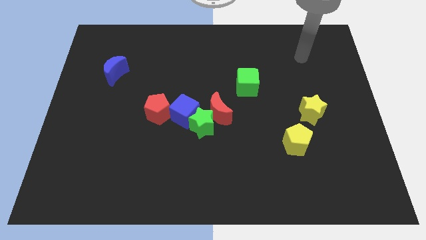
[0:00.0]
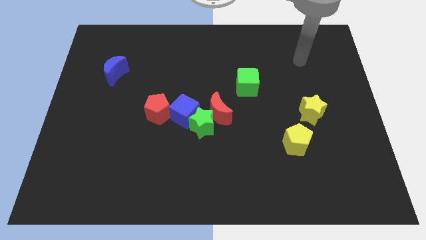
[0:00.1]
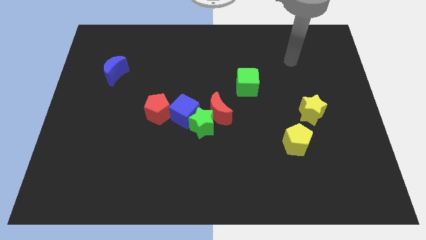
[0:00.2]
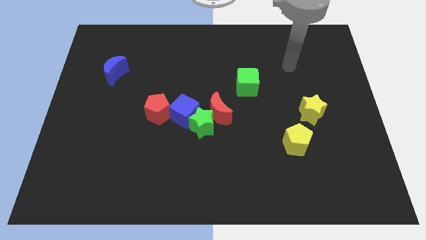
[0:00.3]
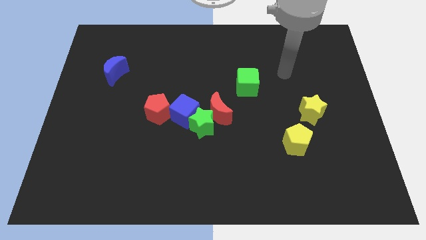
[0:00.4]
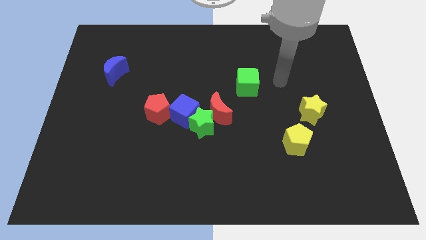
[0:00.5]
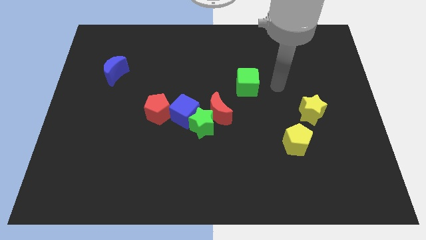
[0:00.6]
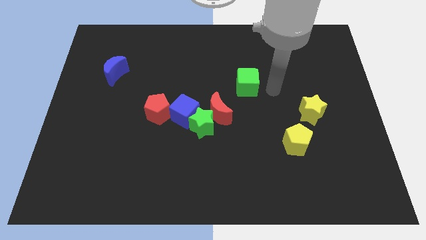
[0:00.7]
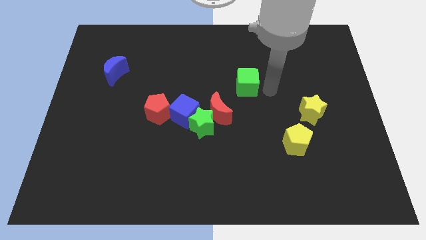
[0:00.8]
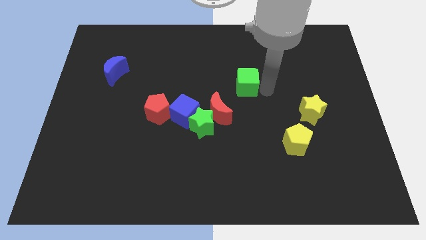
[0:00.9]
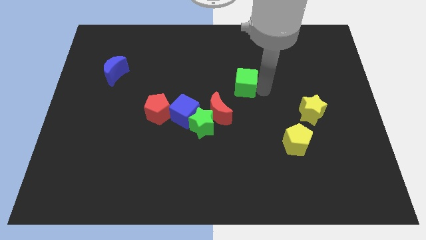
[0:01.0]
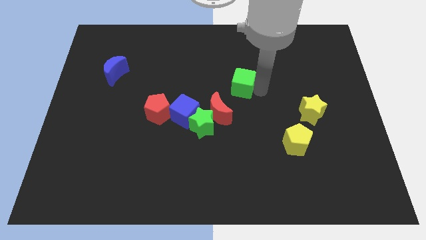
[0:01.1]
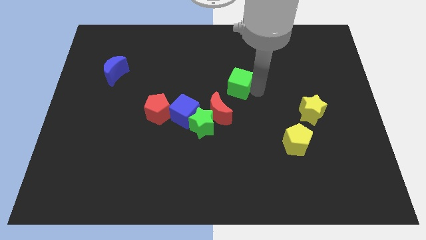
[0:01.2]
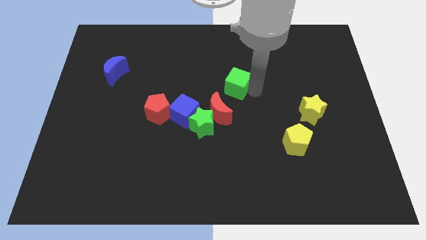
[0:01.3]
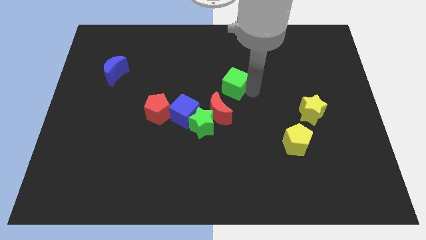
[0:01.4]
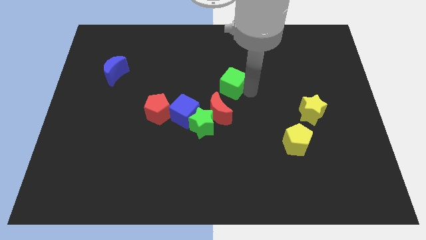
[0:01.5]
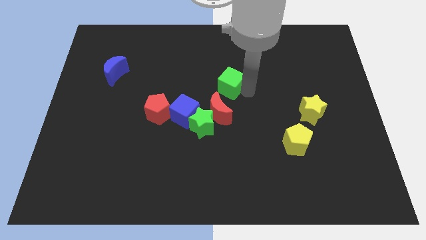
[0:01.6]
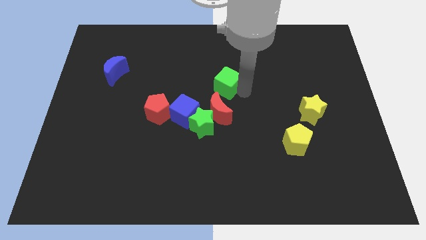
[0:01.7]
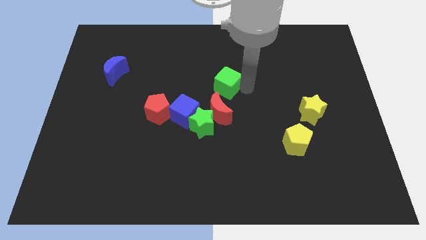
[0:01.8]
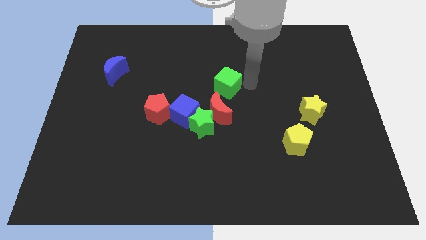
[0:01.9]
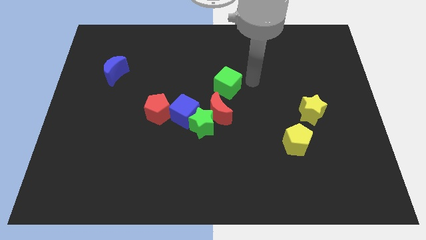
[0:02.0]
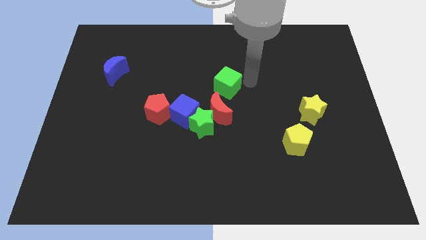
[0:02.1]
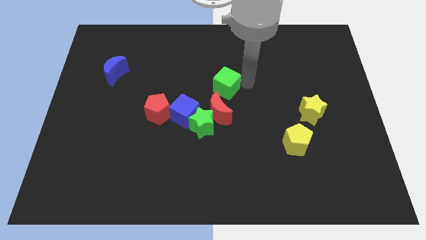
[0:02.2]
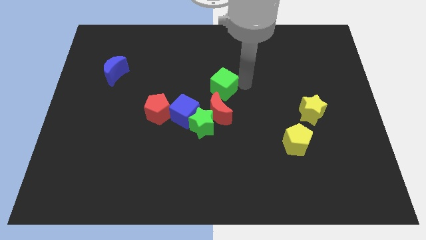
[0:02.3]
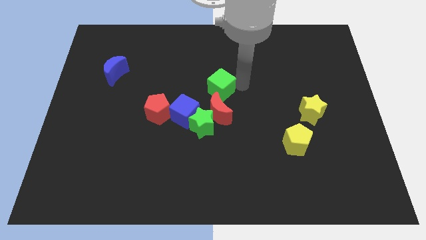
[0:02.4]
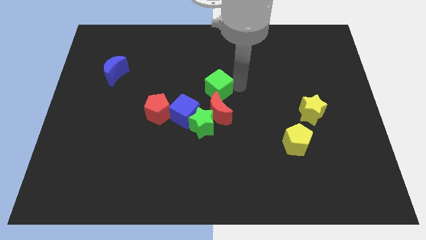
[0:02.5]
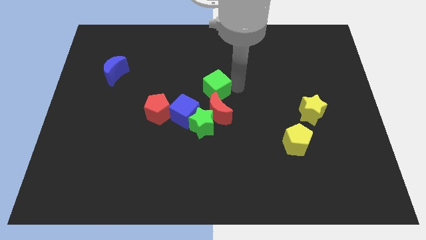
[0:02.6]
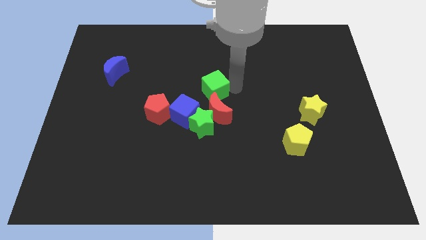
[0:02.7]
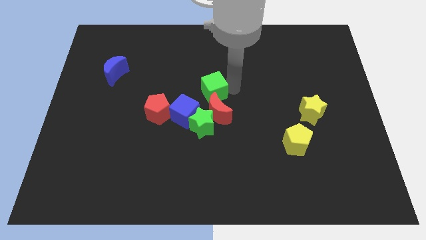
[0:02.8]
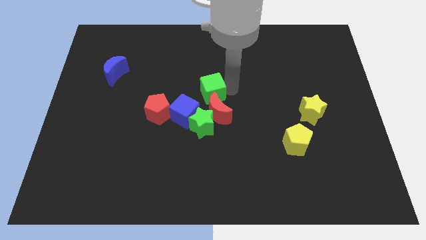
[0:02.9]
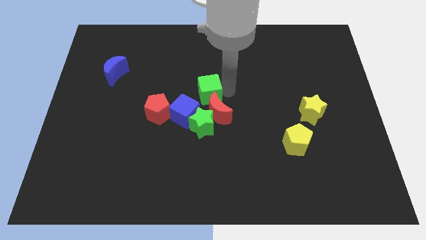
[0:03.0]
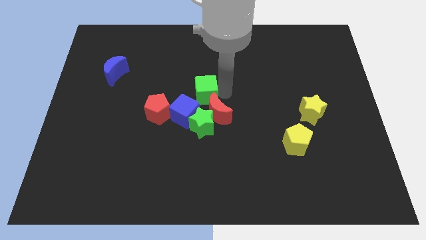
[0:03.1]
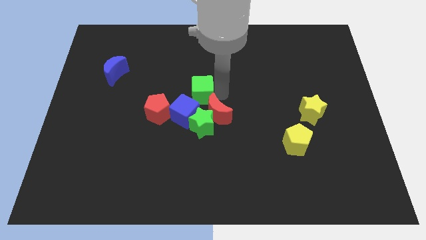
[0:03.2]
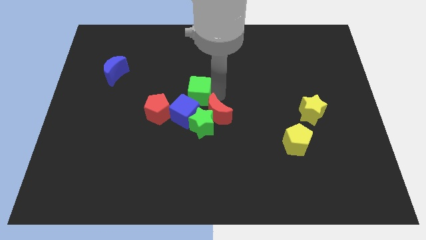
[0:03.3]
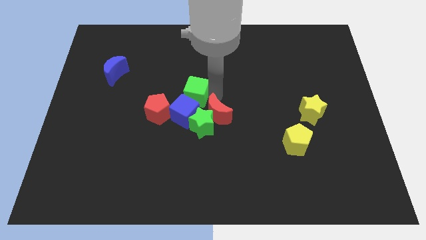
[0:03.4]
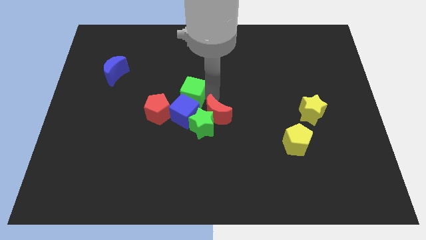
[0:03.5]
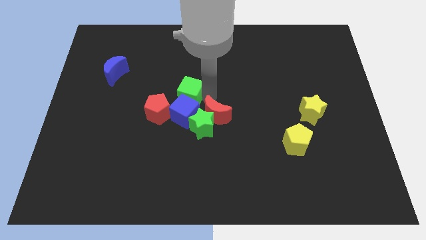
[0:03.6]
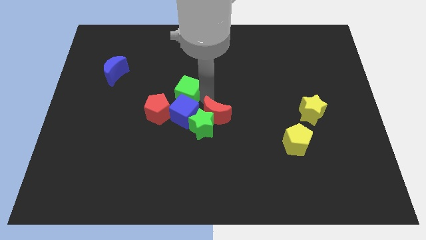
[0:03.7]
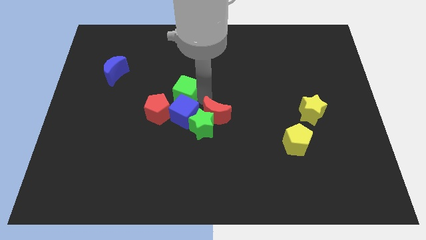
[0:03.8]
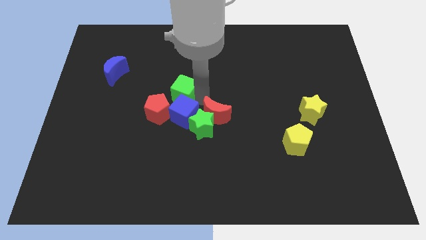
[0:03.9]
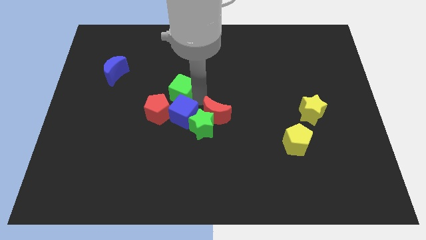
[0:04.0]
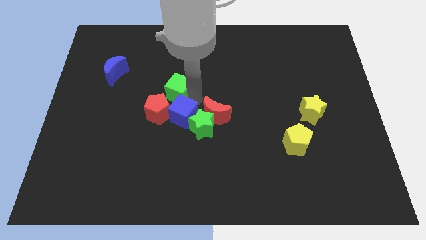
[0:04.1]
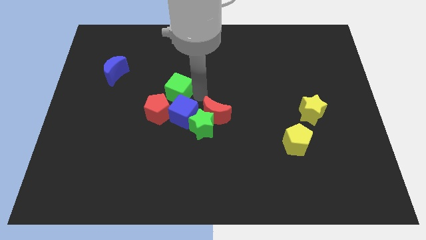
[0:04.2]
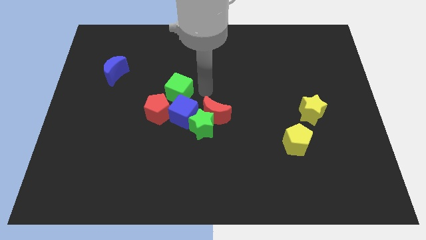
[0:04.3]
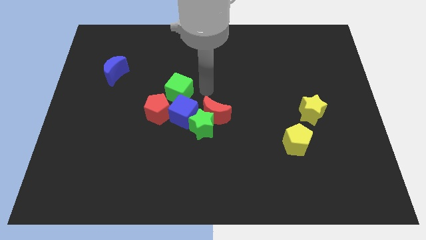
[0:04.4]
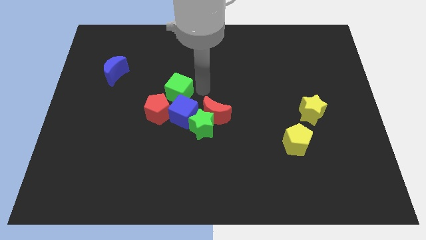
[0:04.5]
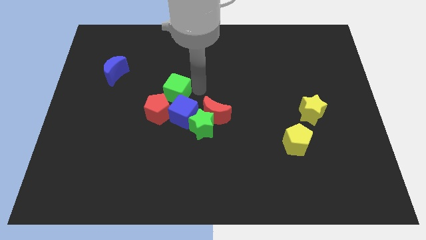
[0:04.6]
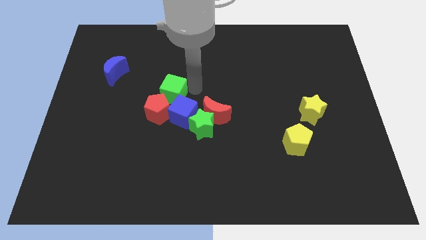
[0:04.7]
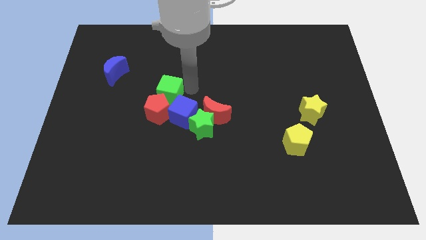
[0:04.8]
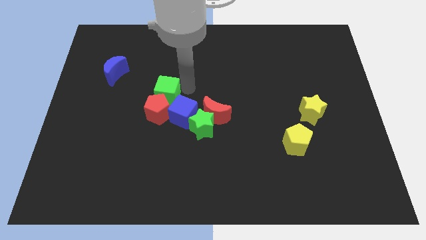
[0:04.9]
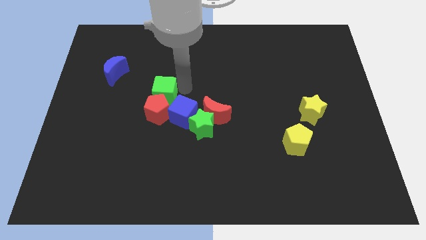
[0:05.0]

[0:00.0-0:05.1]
move the green cube to the top left of the red pentagon

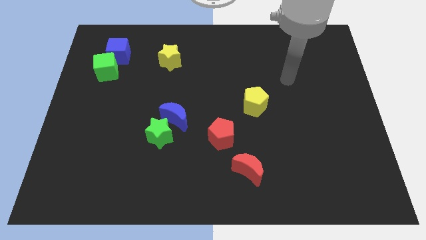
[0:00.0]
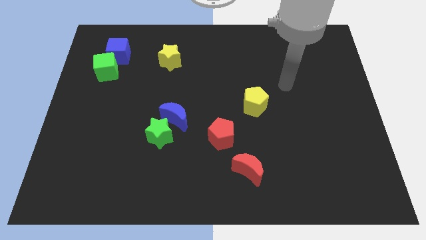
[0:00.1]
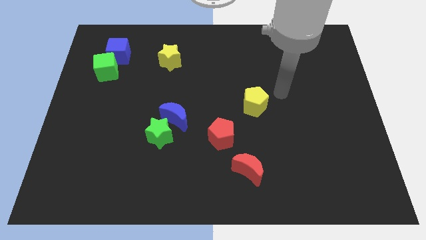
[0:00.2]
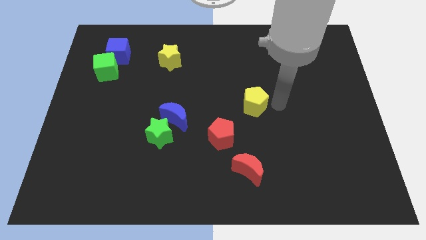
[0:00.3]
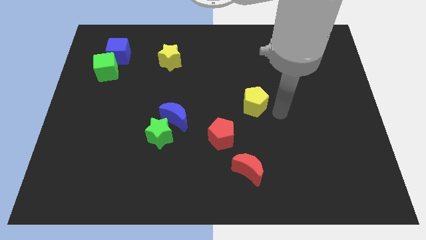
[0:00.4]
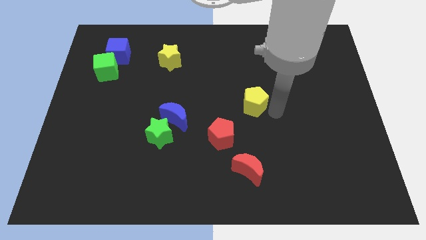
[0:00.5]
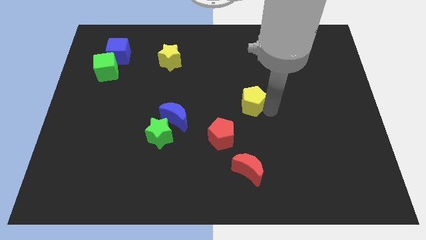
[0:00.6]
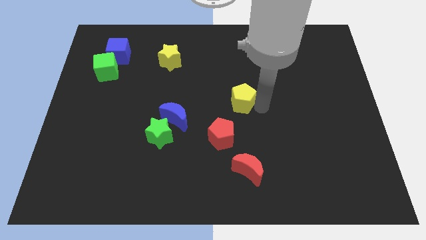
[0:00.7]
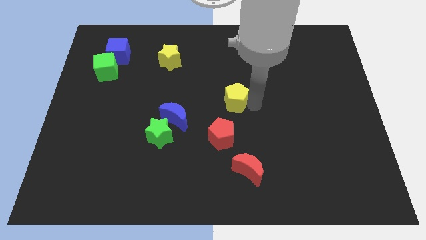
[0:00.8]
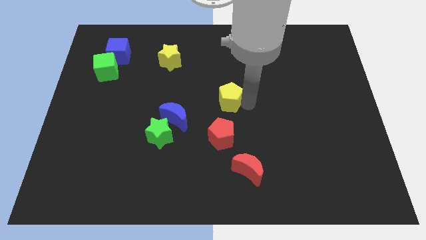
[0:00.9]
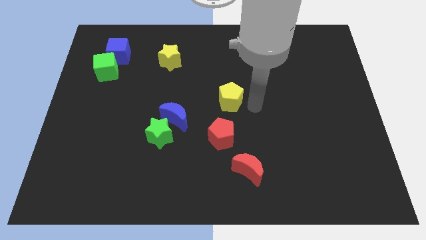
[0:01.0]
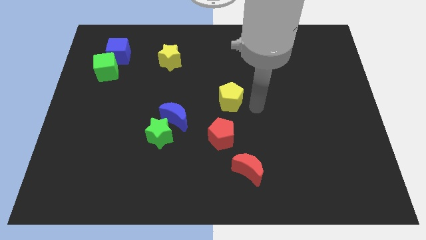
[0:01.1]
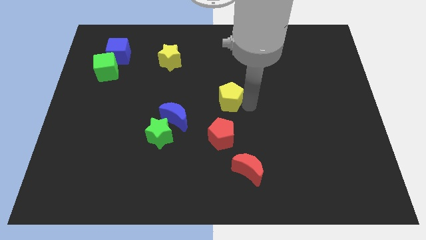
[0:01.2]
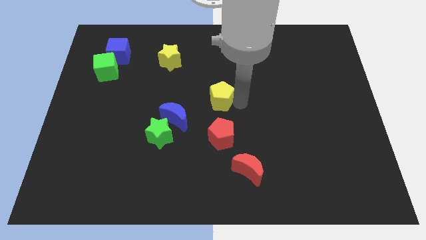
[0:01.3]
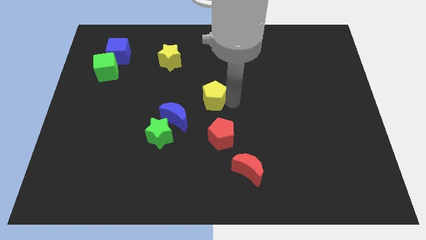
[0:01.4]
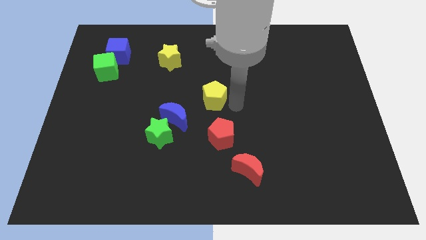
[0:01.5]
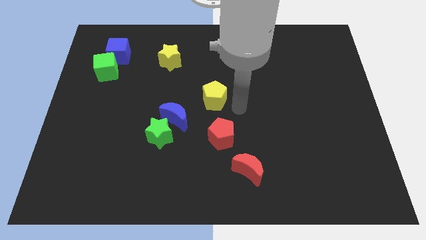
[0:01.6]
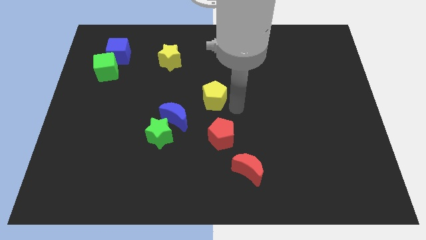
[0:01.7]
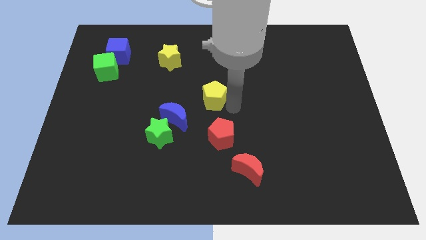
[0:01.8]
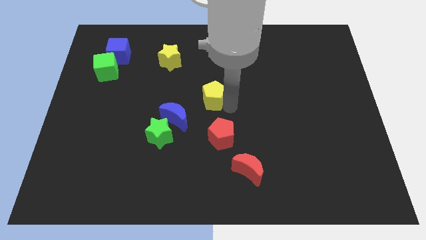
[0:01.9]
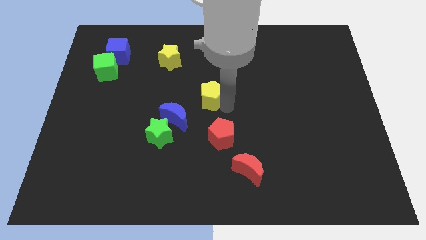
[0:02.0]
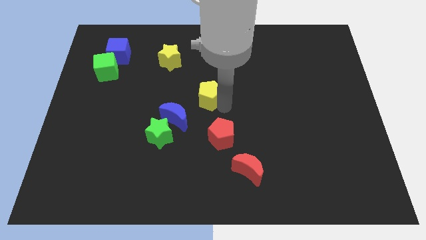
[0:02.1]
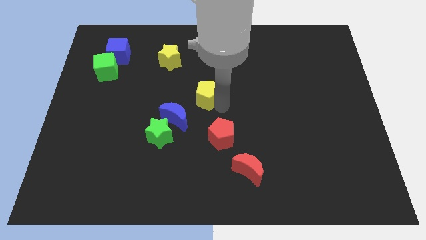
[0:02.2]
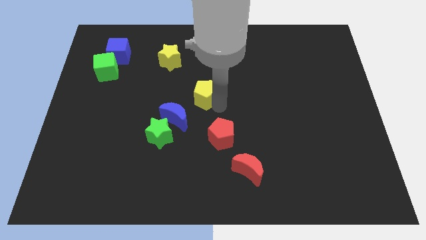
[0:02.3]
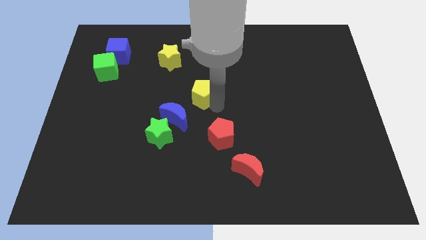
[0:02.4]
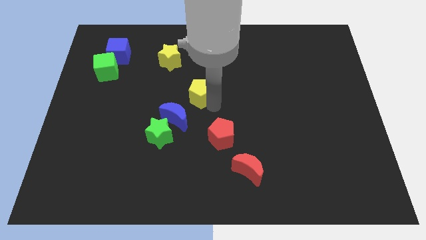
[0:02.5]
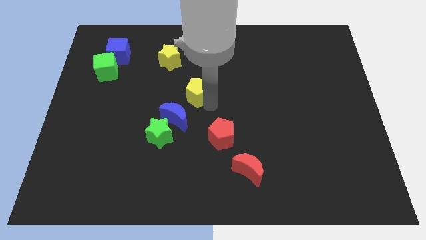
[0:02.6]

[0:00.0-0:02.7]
put the yellow pentagon to the top side of the blue moon
